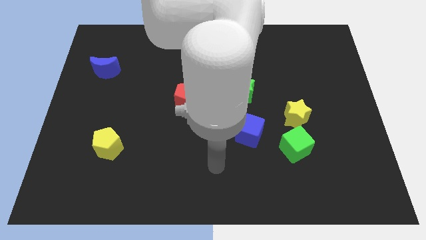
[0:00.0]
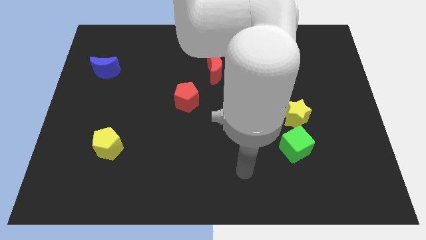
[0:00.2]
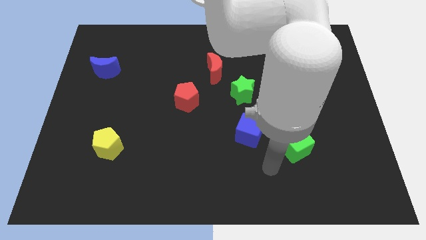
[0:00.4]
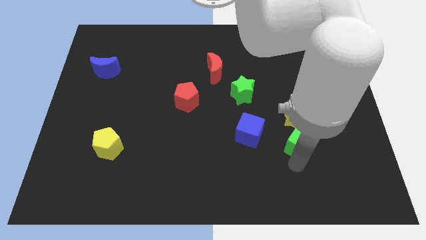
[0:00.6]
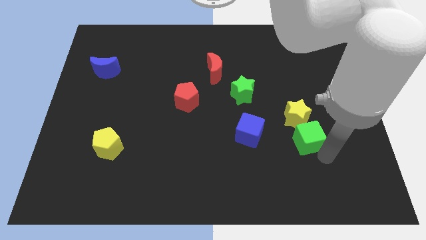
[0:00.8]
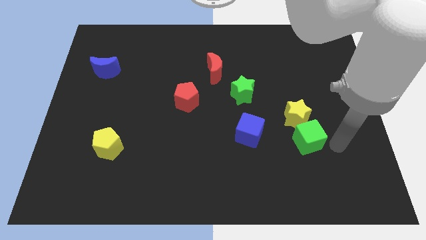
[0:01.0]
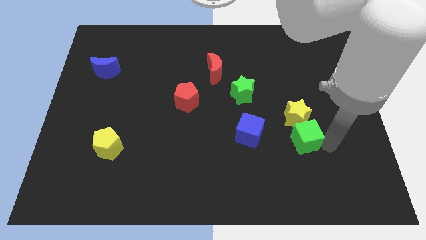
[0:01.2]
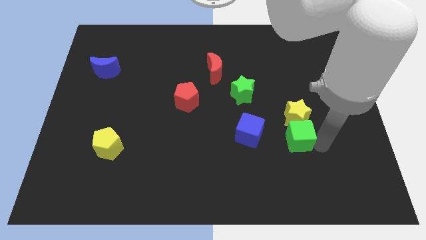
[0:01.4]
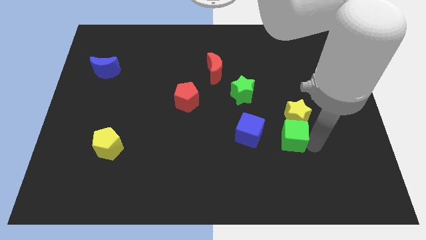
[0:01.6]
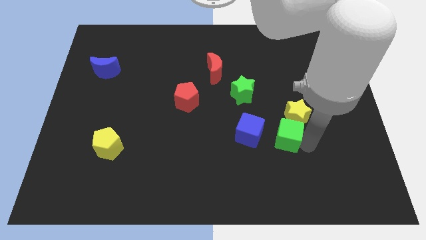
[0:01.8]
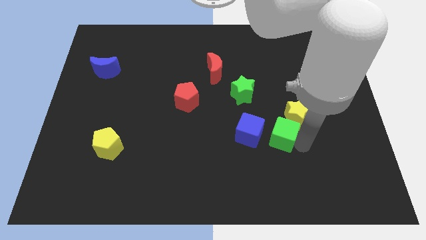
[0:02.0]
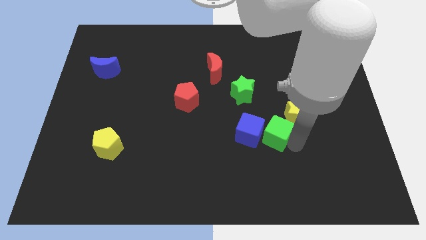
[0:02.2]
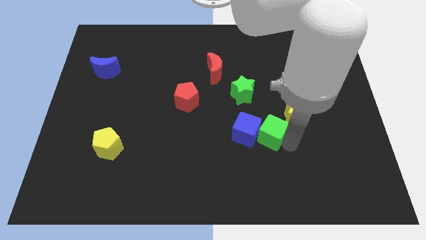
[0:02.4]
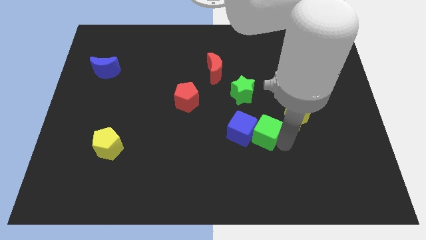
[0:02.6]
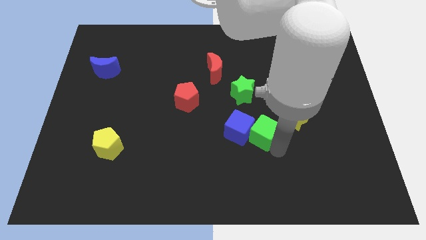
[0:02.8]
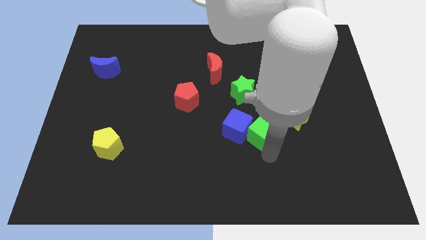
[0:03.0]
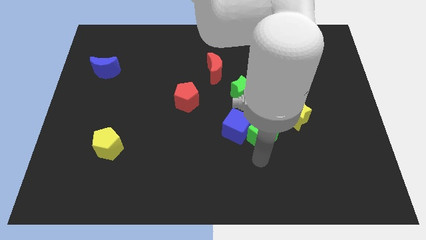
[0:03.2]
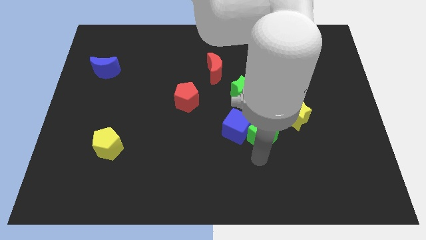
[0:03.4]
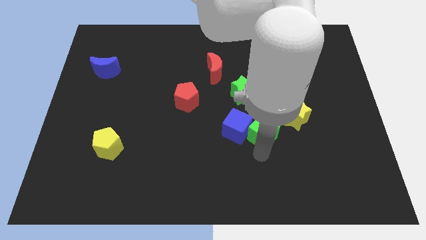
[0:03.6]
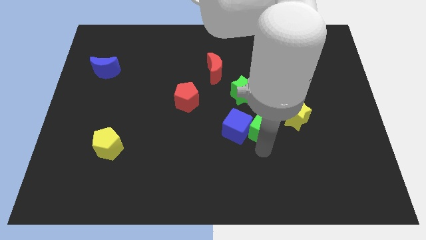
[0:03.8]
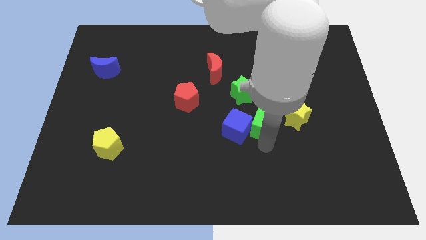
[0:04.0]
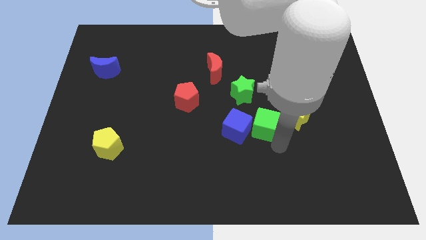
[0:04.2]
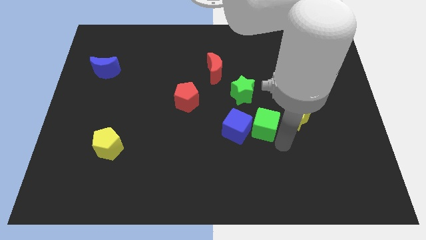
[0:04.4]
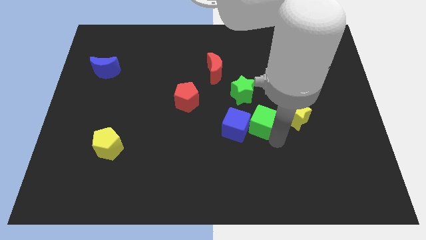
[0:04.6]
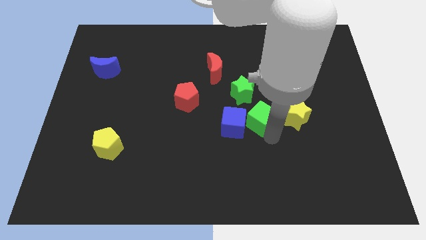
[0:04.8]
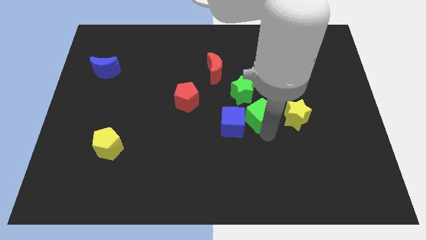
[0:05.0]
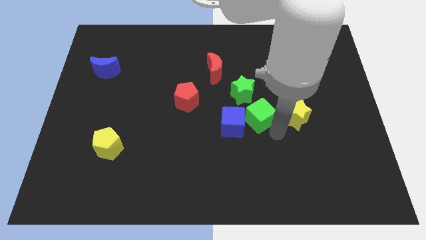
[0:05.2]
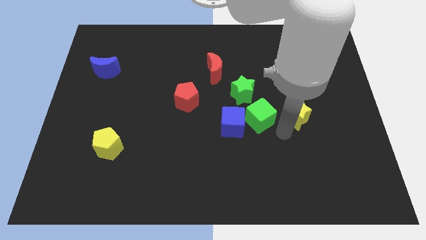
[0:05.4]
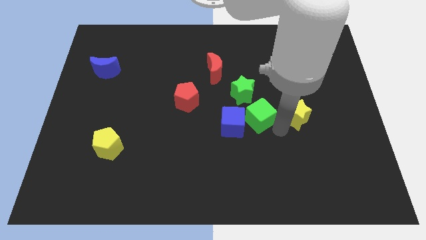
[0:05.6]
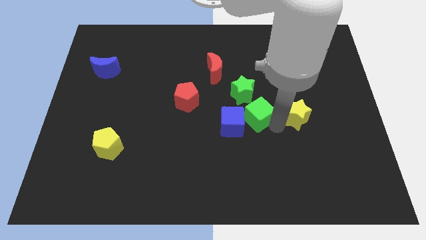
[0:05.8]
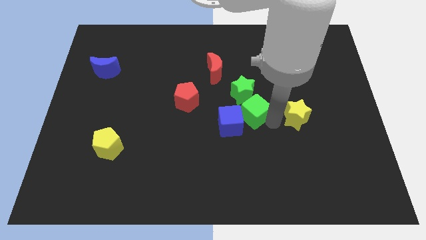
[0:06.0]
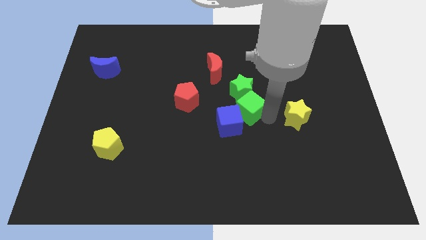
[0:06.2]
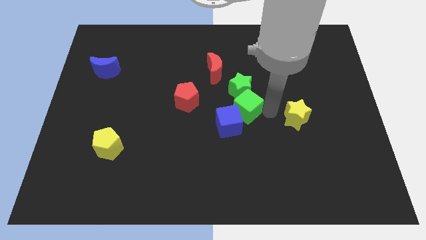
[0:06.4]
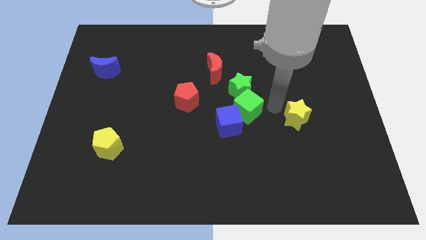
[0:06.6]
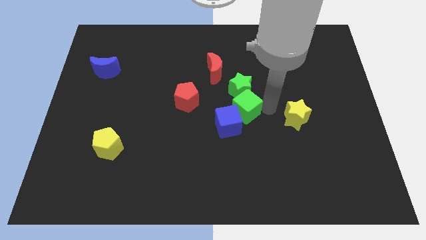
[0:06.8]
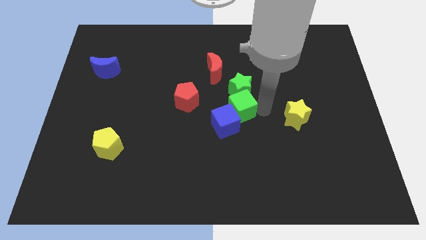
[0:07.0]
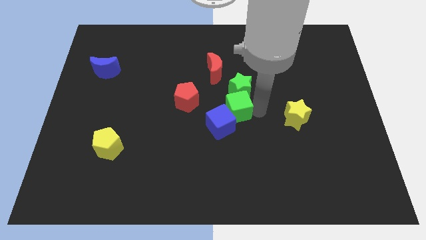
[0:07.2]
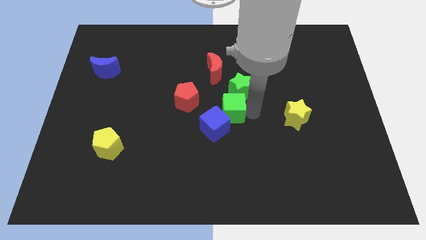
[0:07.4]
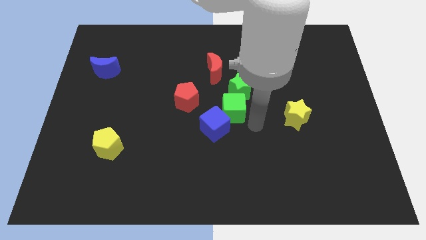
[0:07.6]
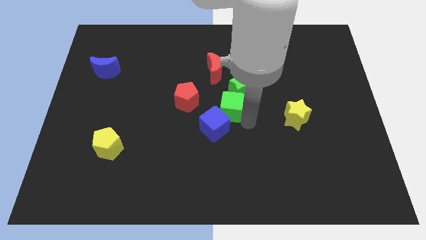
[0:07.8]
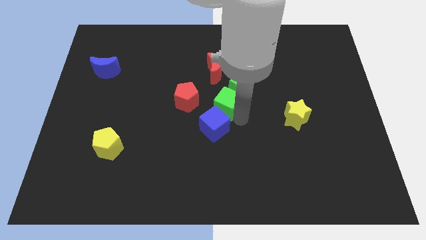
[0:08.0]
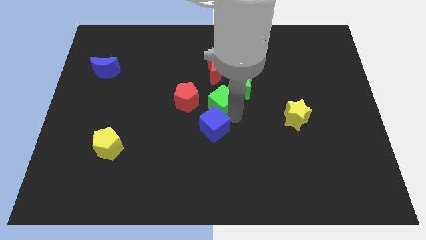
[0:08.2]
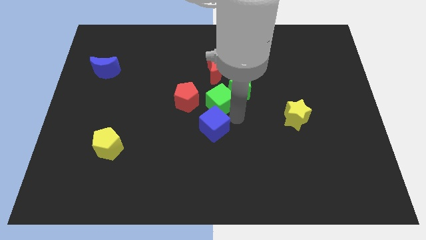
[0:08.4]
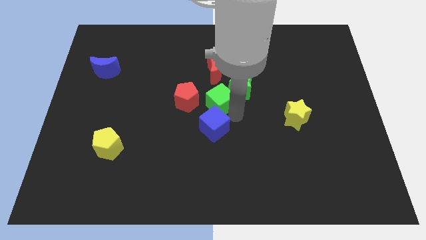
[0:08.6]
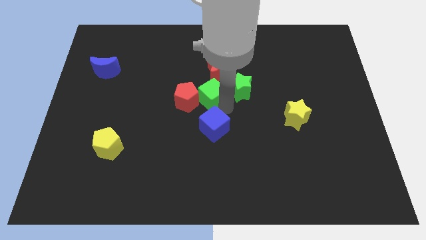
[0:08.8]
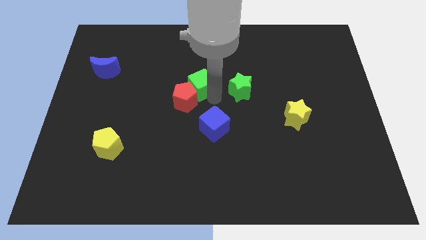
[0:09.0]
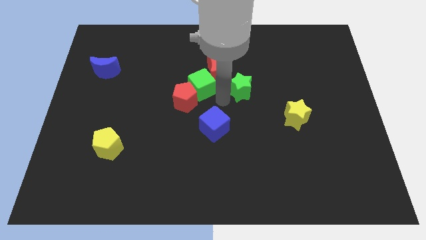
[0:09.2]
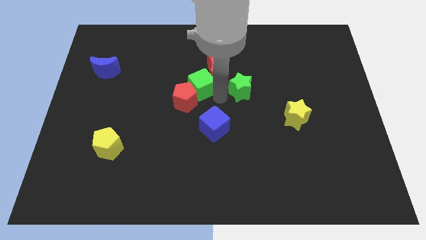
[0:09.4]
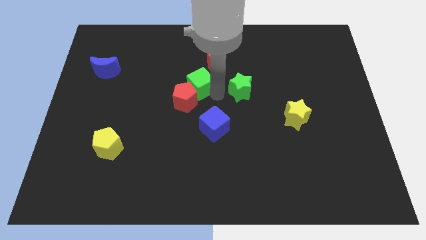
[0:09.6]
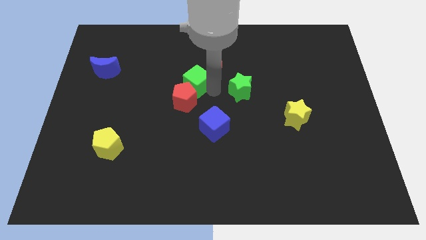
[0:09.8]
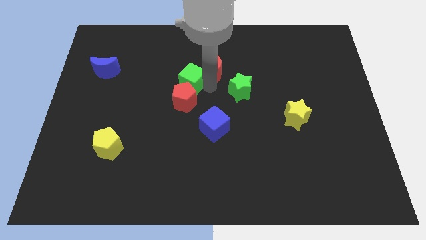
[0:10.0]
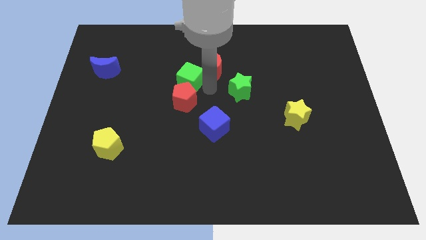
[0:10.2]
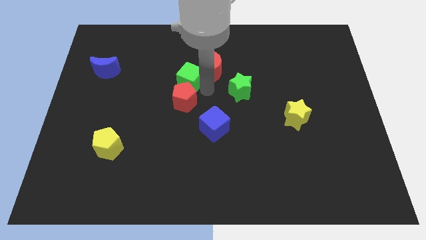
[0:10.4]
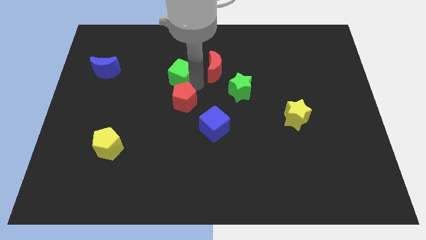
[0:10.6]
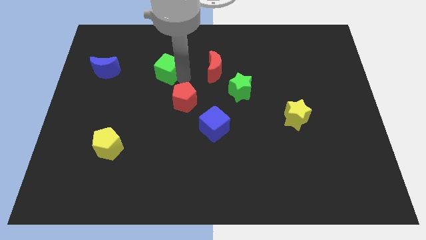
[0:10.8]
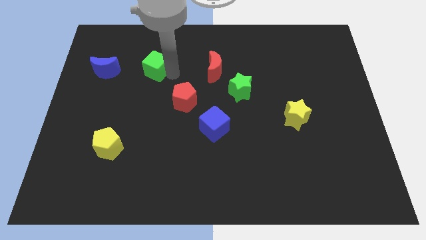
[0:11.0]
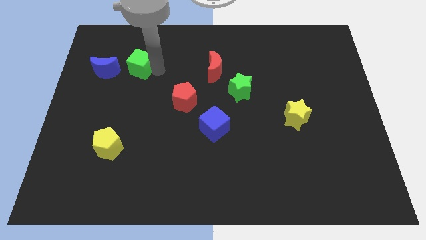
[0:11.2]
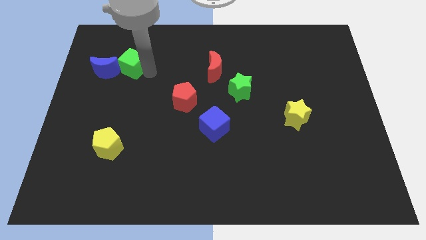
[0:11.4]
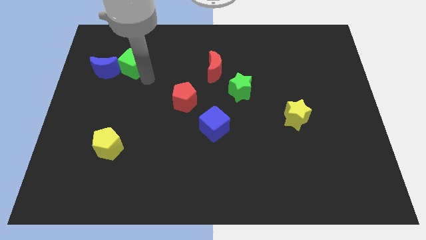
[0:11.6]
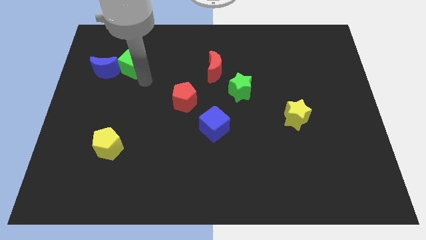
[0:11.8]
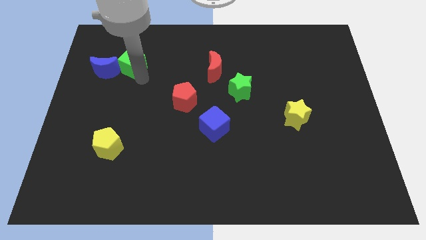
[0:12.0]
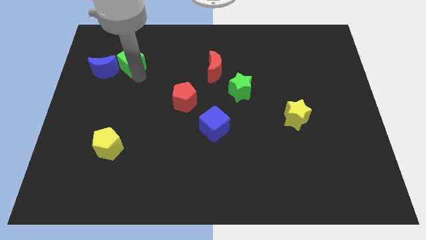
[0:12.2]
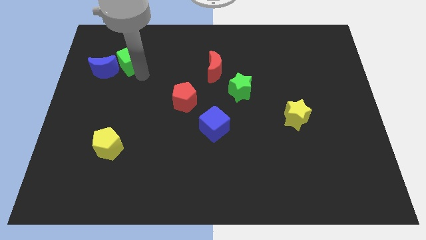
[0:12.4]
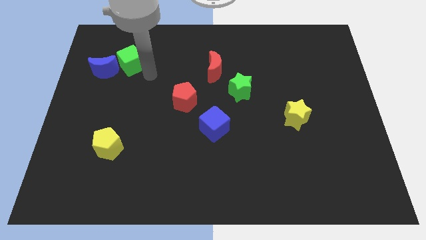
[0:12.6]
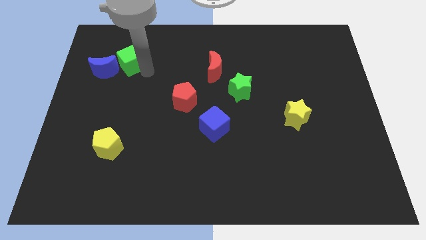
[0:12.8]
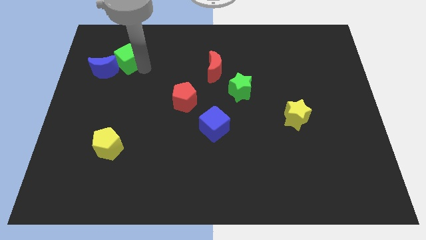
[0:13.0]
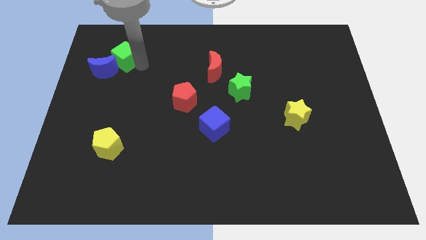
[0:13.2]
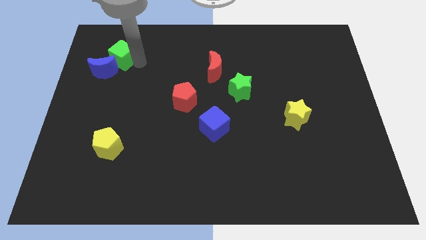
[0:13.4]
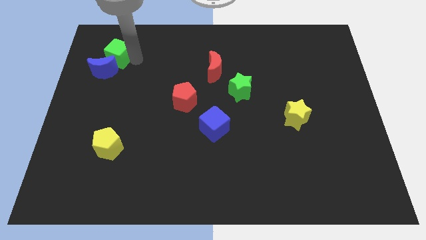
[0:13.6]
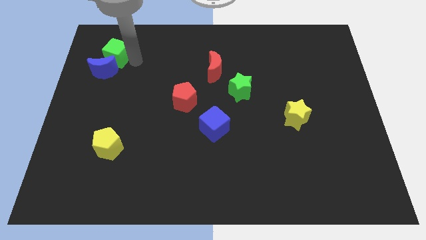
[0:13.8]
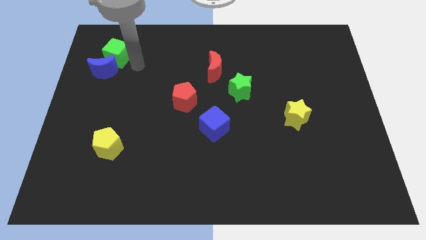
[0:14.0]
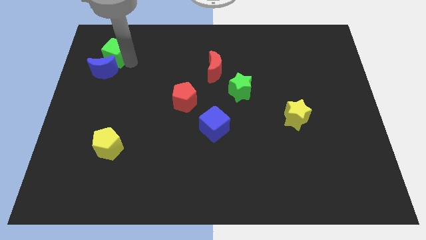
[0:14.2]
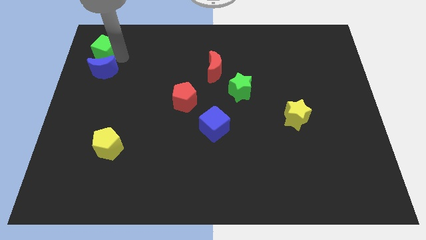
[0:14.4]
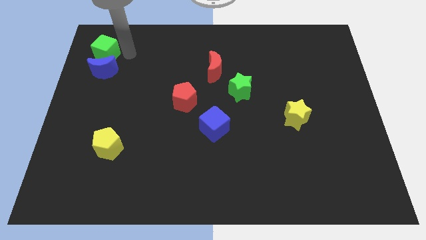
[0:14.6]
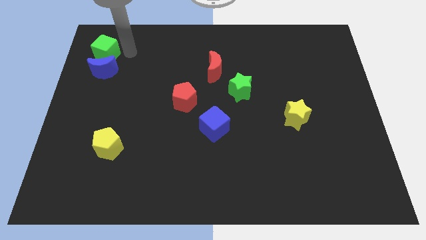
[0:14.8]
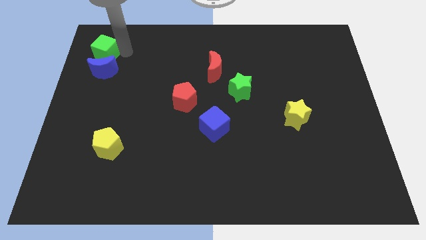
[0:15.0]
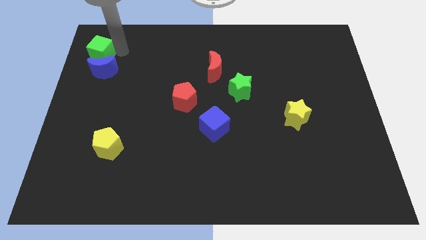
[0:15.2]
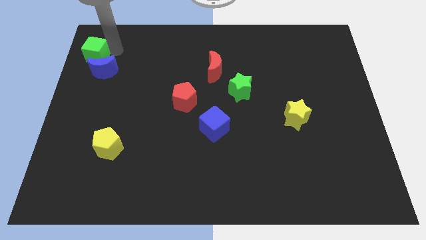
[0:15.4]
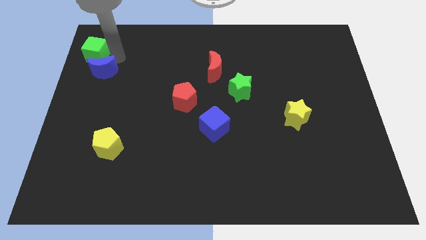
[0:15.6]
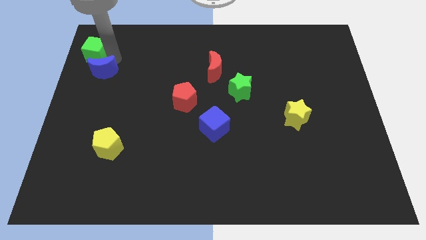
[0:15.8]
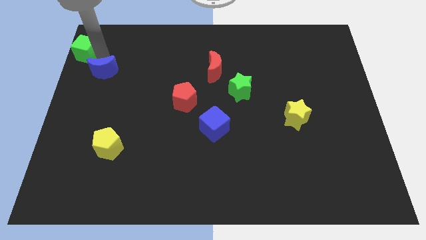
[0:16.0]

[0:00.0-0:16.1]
push the green cube to the top left of the board
